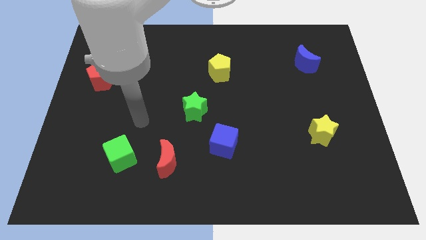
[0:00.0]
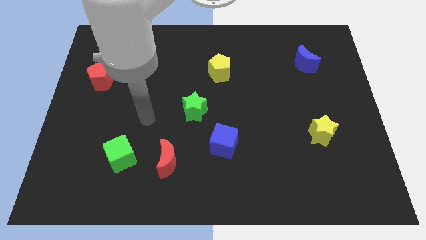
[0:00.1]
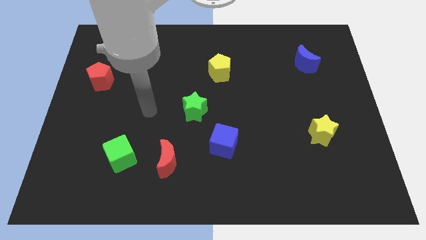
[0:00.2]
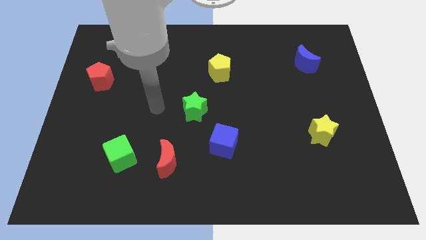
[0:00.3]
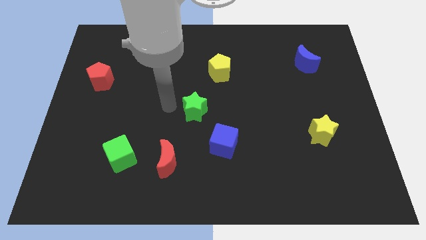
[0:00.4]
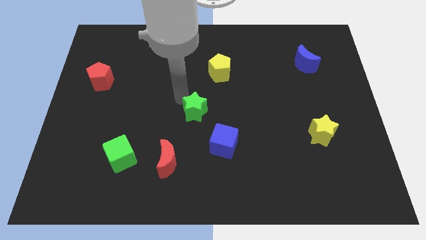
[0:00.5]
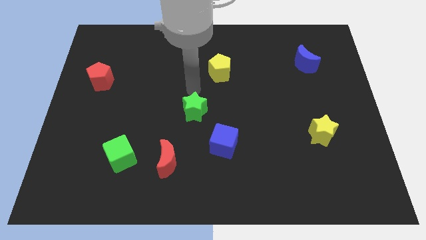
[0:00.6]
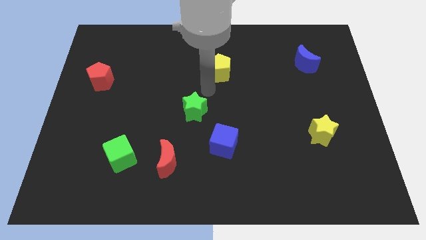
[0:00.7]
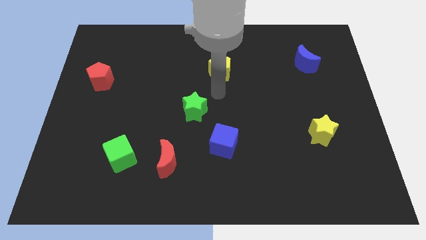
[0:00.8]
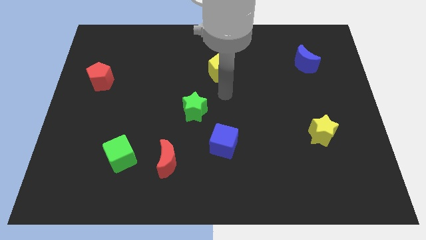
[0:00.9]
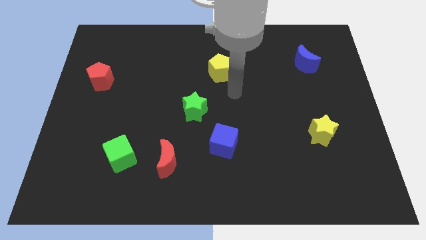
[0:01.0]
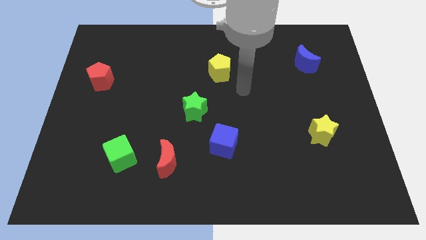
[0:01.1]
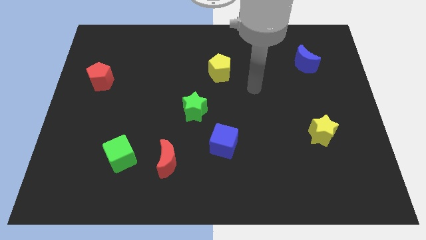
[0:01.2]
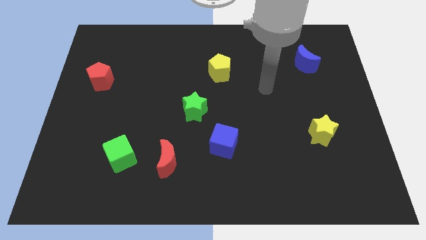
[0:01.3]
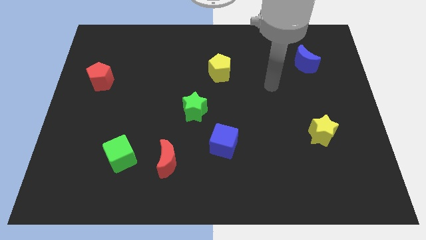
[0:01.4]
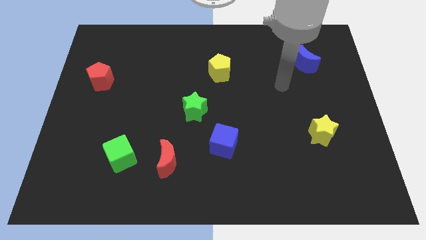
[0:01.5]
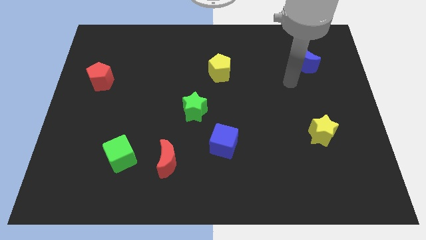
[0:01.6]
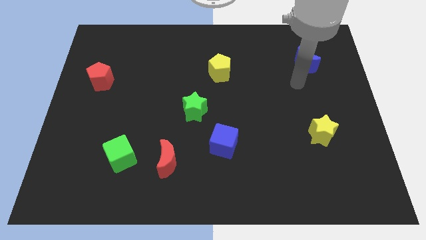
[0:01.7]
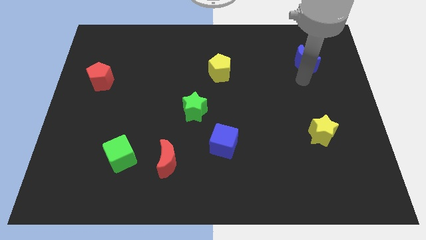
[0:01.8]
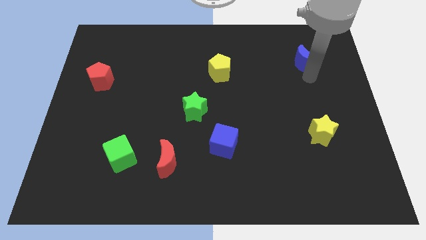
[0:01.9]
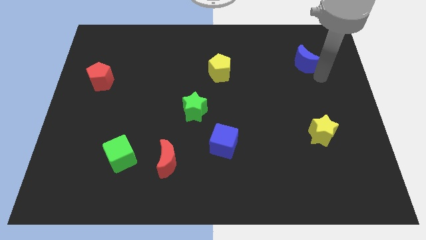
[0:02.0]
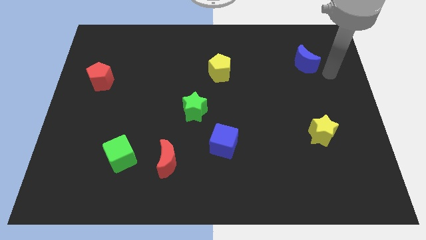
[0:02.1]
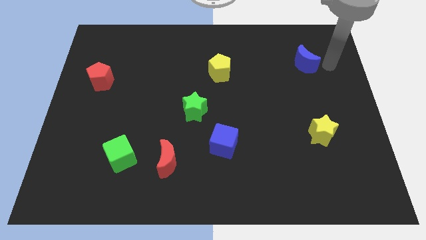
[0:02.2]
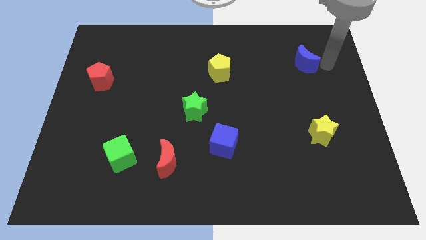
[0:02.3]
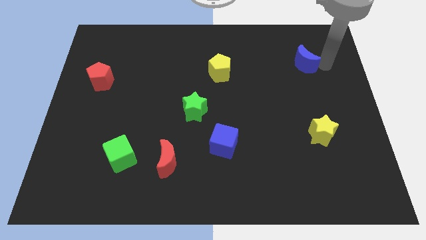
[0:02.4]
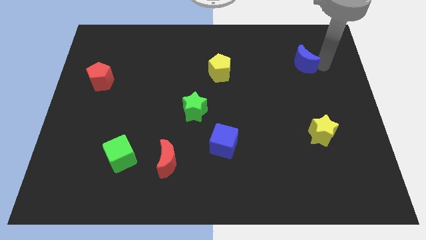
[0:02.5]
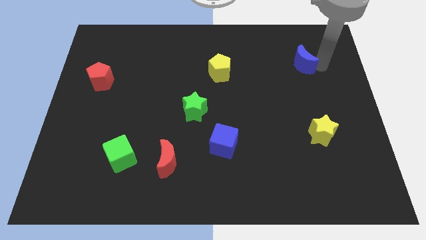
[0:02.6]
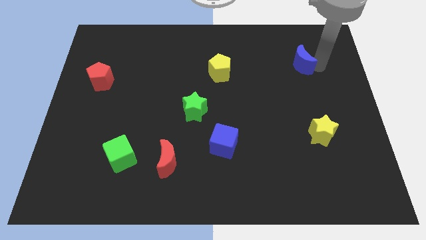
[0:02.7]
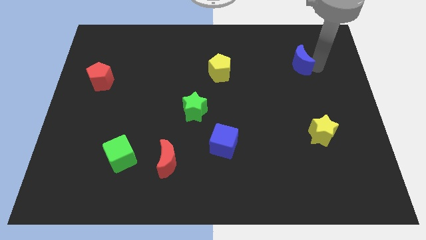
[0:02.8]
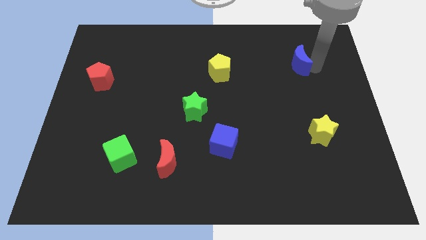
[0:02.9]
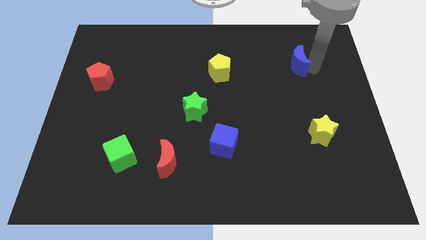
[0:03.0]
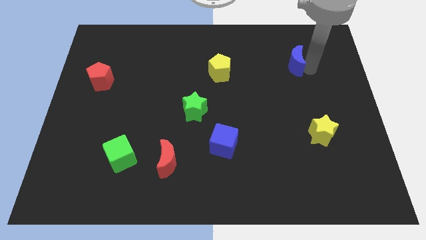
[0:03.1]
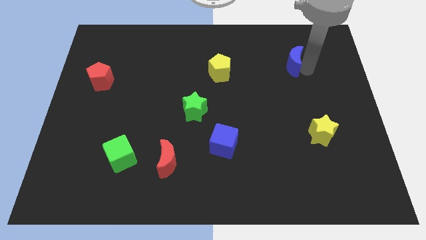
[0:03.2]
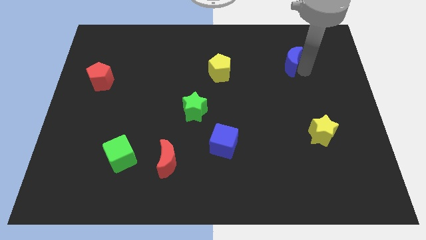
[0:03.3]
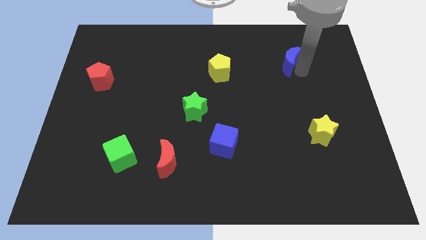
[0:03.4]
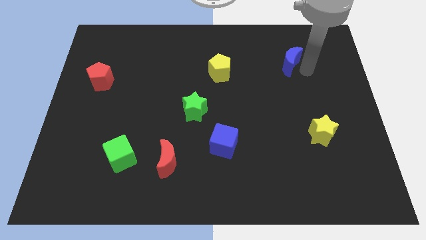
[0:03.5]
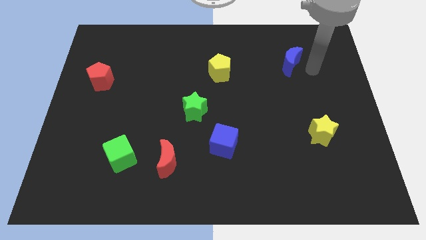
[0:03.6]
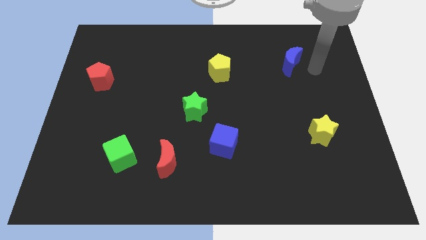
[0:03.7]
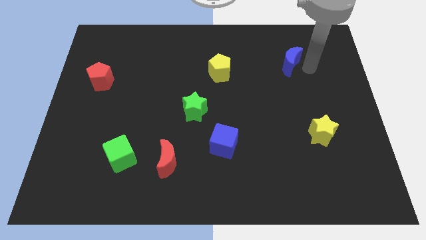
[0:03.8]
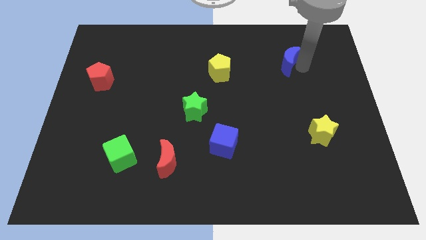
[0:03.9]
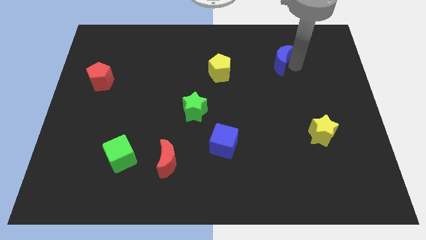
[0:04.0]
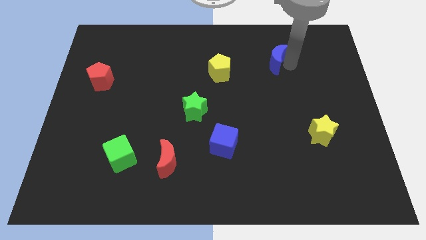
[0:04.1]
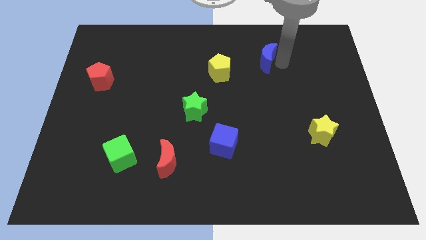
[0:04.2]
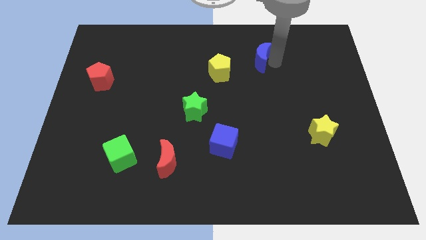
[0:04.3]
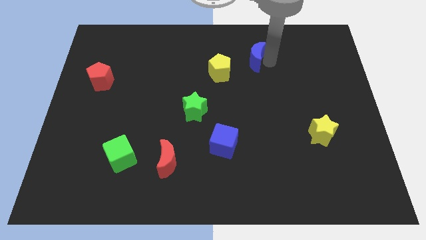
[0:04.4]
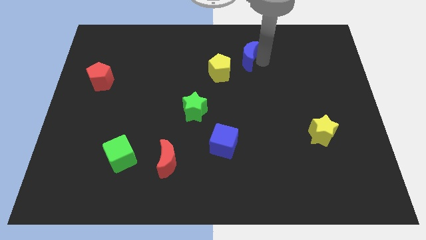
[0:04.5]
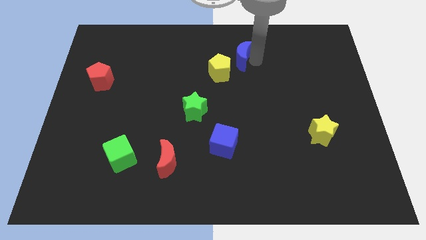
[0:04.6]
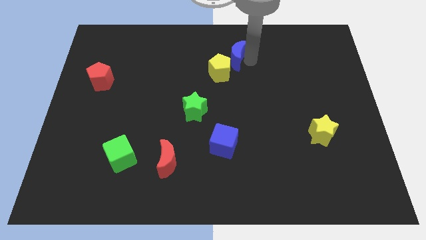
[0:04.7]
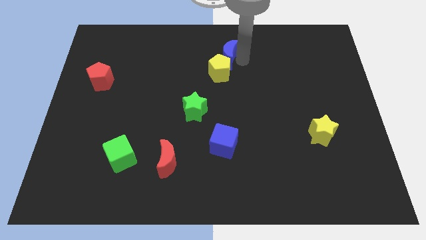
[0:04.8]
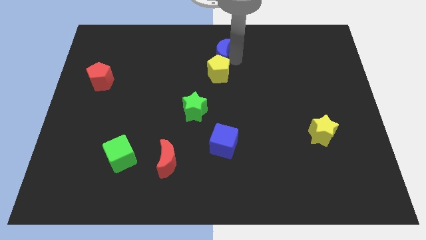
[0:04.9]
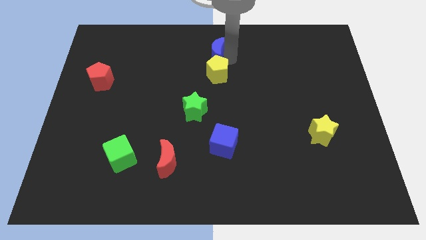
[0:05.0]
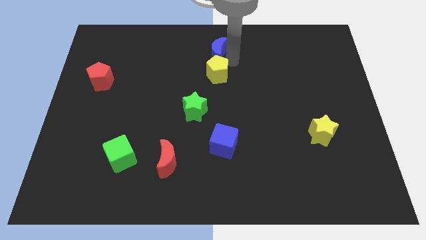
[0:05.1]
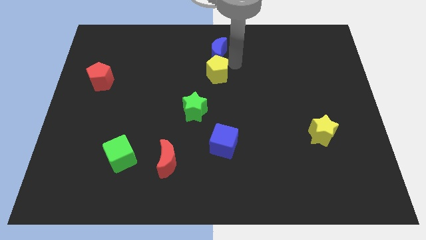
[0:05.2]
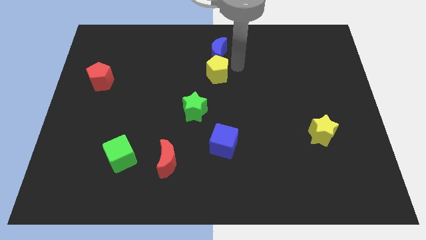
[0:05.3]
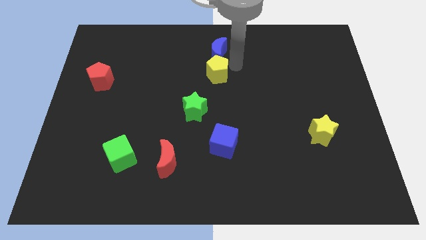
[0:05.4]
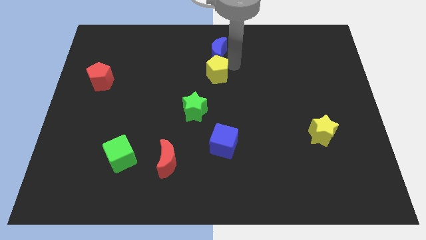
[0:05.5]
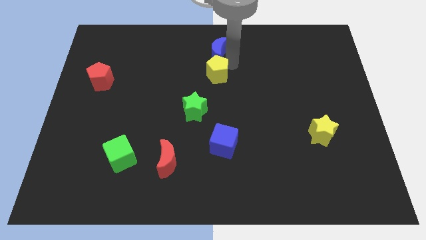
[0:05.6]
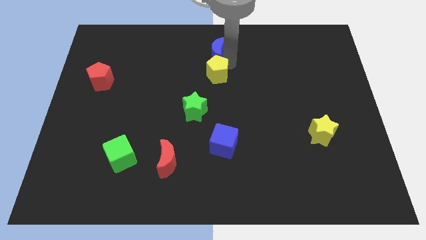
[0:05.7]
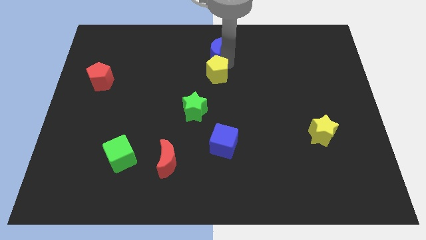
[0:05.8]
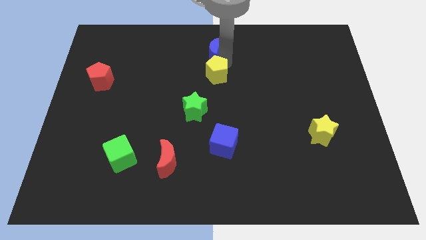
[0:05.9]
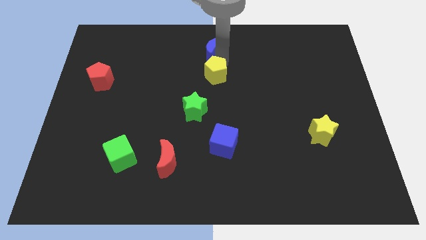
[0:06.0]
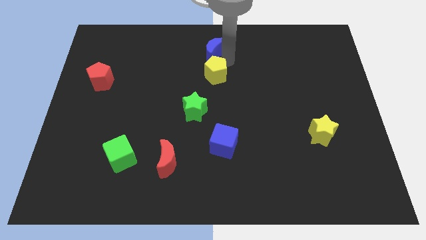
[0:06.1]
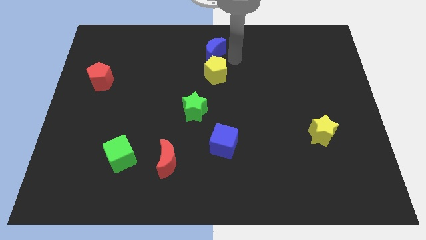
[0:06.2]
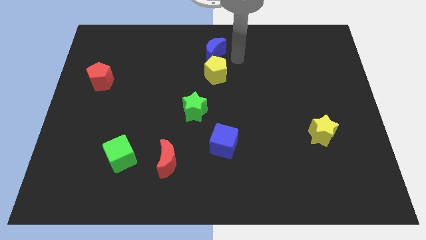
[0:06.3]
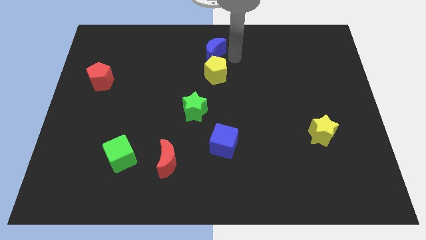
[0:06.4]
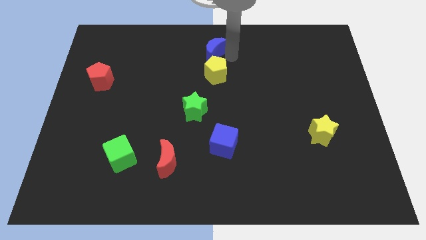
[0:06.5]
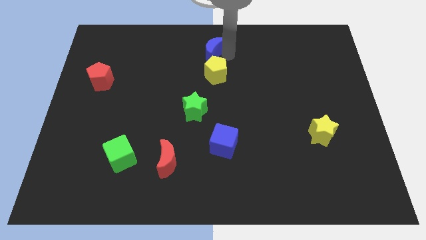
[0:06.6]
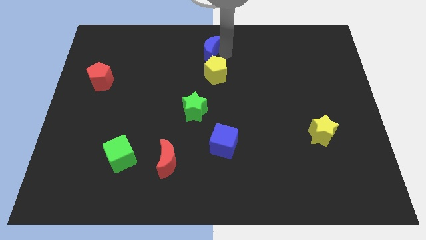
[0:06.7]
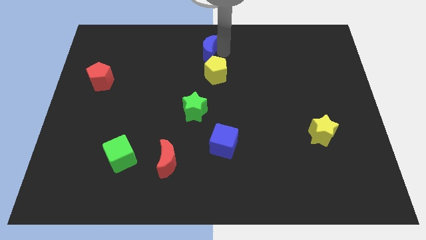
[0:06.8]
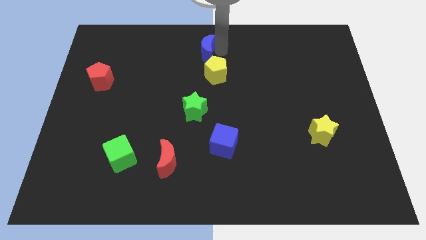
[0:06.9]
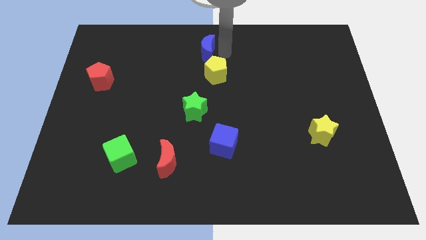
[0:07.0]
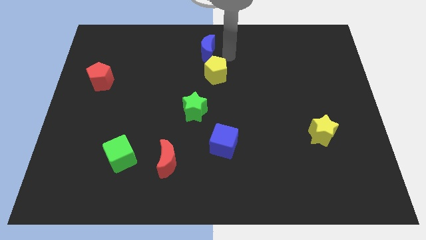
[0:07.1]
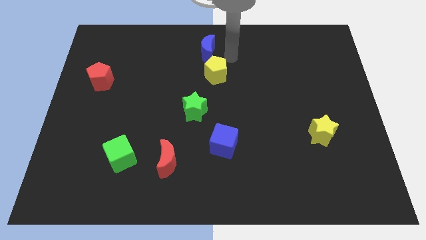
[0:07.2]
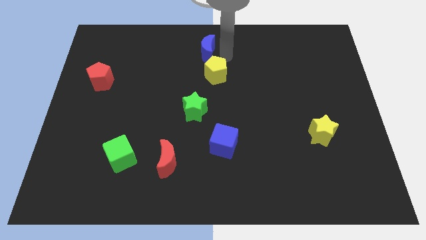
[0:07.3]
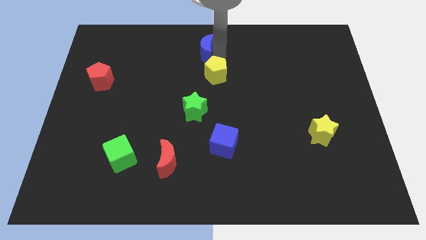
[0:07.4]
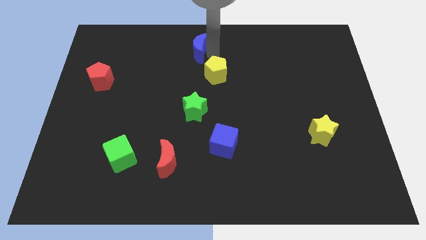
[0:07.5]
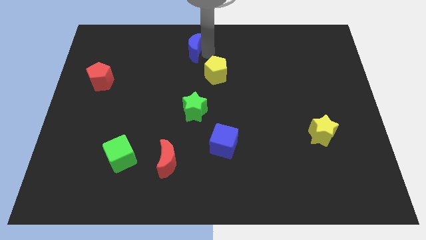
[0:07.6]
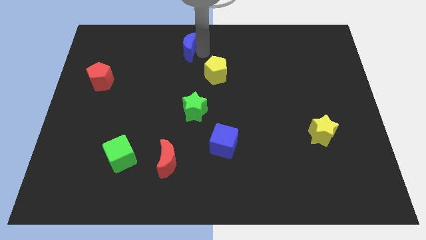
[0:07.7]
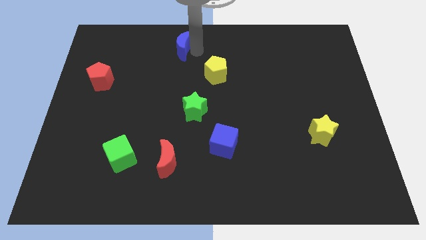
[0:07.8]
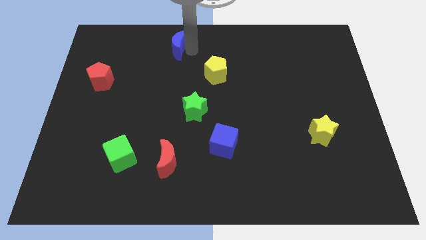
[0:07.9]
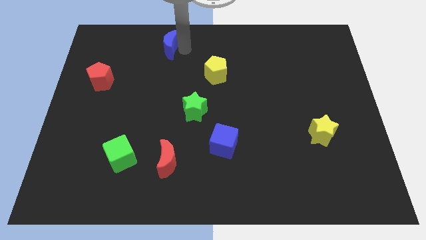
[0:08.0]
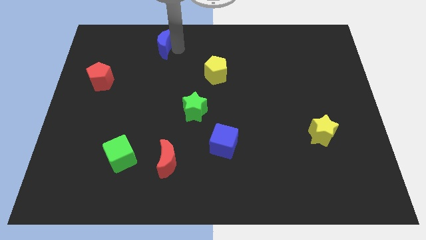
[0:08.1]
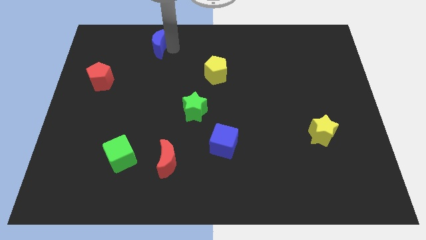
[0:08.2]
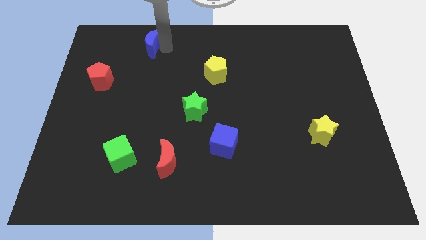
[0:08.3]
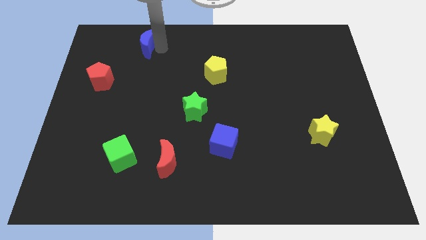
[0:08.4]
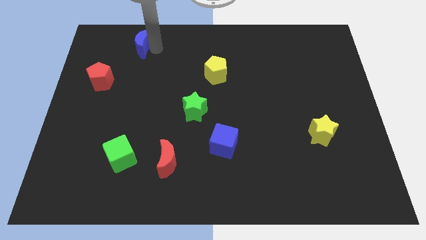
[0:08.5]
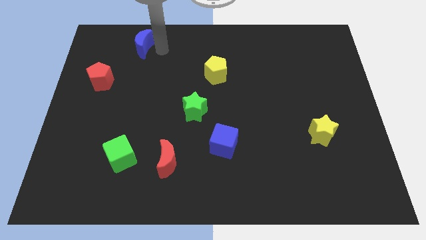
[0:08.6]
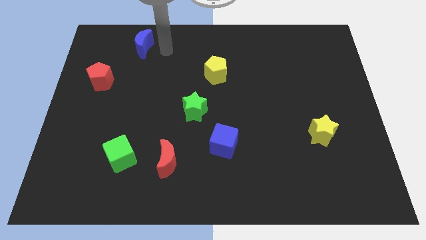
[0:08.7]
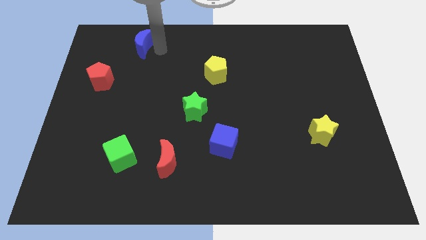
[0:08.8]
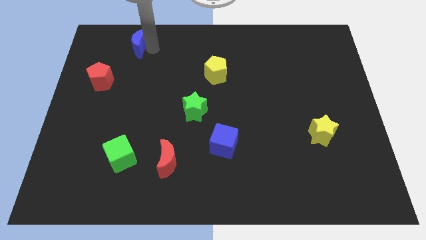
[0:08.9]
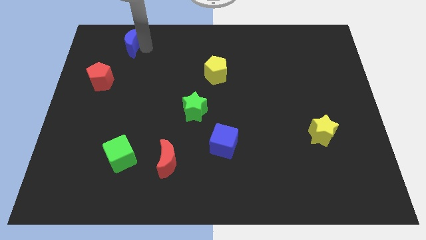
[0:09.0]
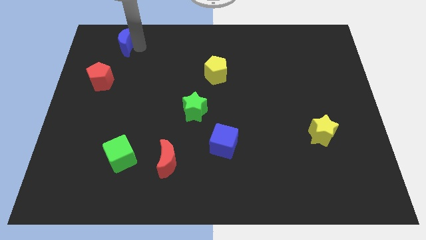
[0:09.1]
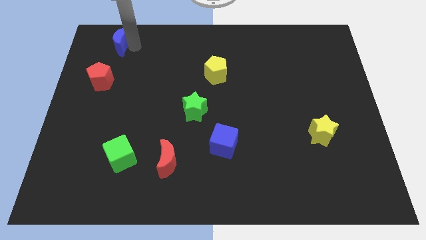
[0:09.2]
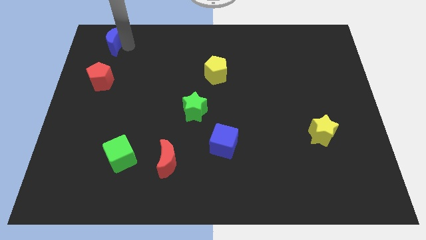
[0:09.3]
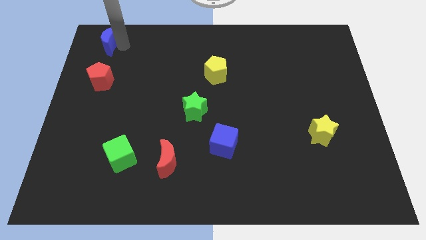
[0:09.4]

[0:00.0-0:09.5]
put the blue moon to the top left of the board
